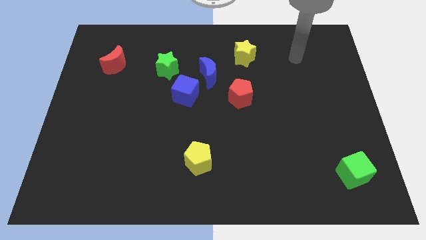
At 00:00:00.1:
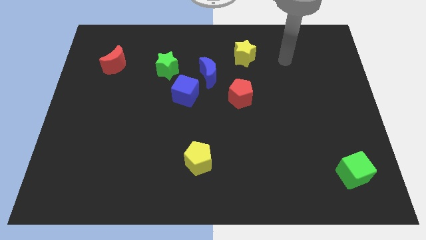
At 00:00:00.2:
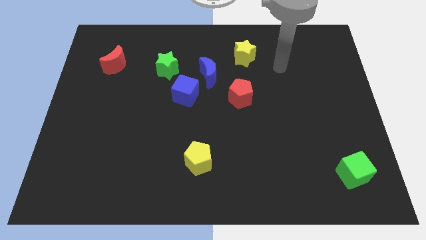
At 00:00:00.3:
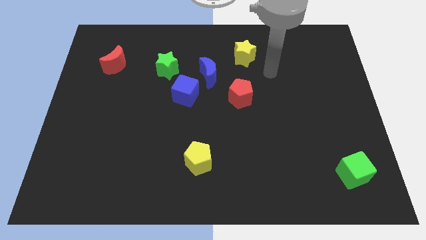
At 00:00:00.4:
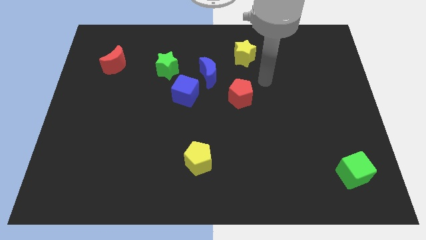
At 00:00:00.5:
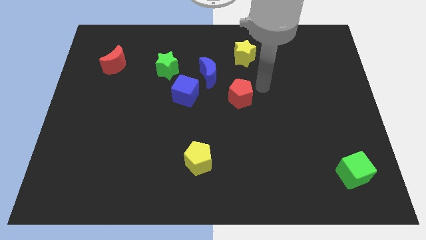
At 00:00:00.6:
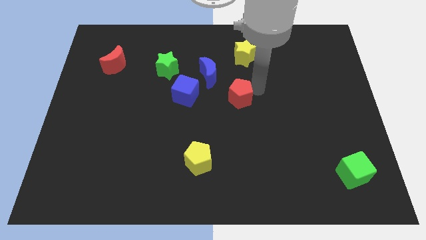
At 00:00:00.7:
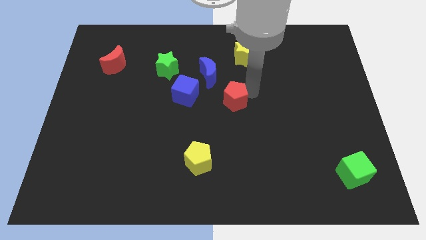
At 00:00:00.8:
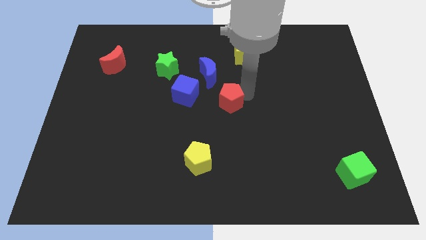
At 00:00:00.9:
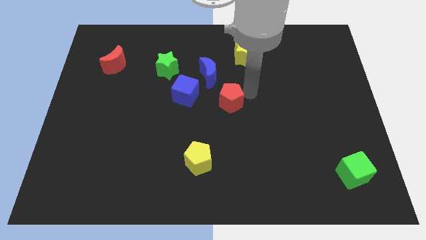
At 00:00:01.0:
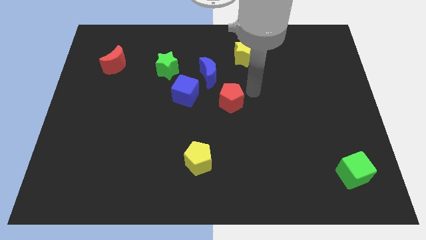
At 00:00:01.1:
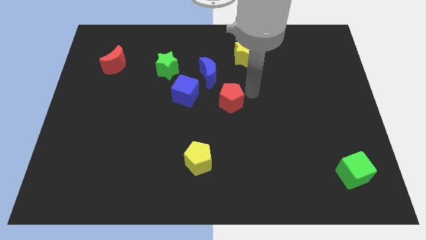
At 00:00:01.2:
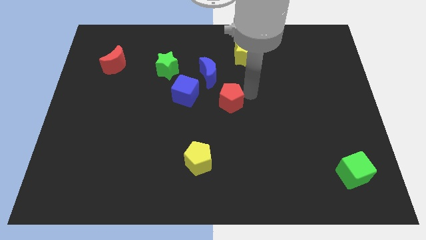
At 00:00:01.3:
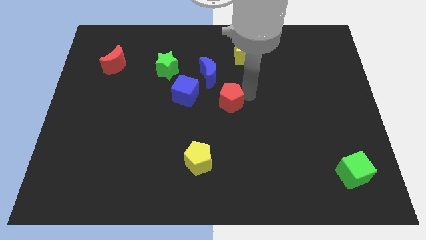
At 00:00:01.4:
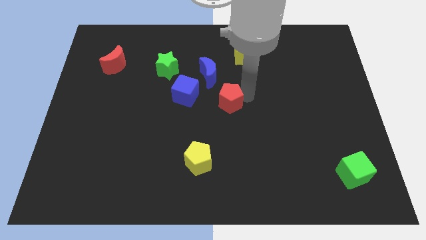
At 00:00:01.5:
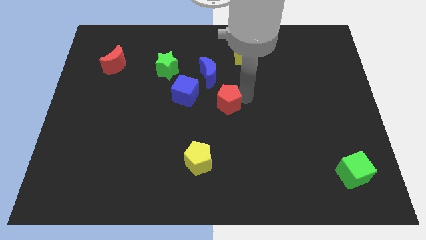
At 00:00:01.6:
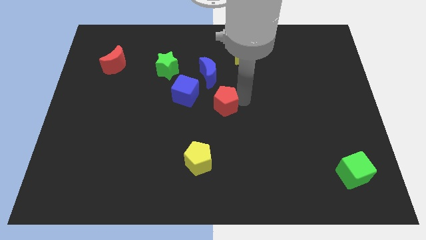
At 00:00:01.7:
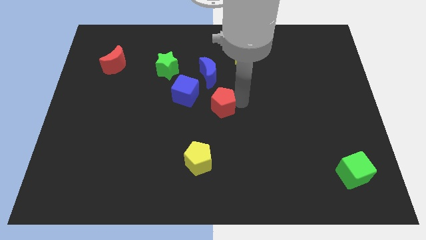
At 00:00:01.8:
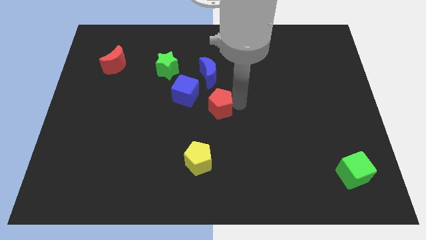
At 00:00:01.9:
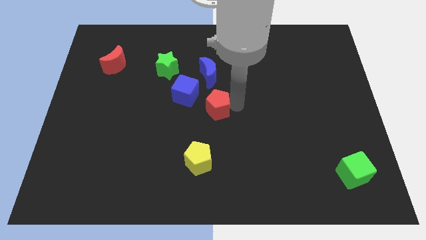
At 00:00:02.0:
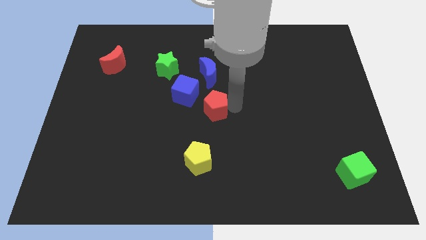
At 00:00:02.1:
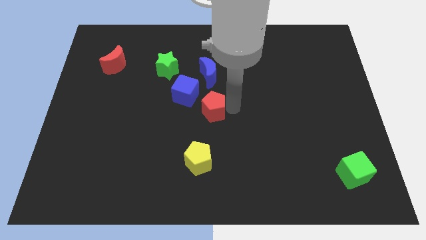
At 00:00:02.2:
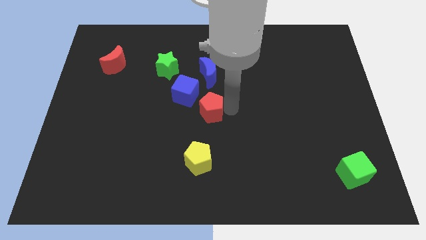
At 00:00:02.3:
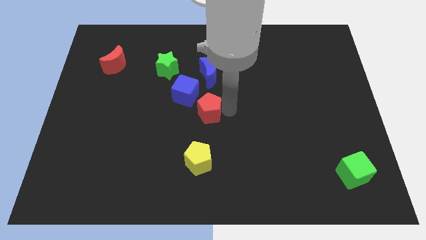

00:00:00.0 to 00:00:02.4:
move the red pentagon to the left a bit

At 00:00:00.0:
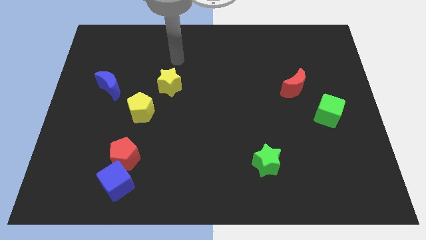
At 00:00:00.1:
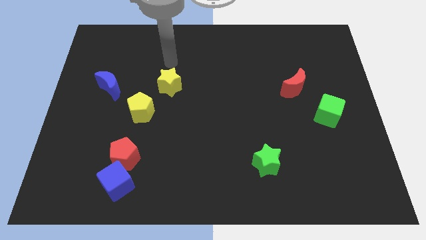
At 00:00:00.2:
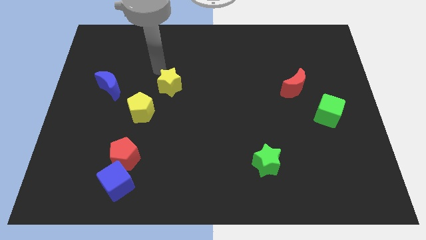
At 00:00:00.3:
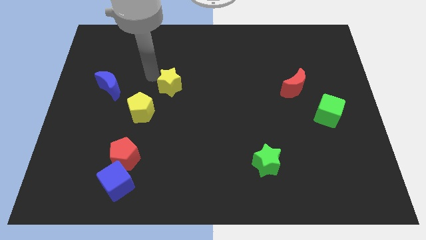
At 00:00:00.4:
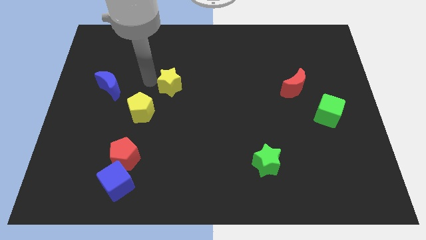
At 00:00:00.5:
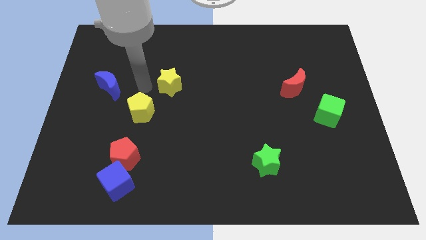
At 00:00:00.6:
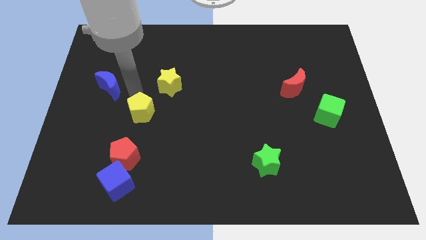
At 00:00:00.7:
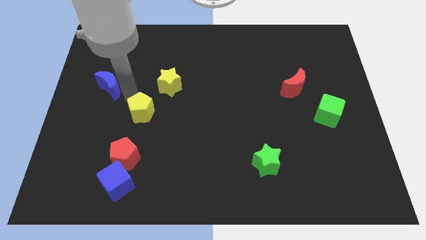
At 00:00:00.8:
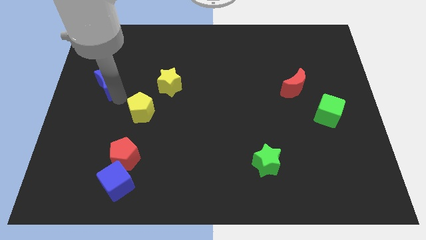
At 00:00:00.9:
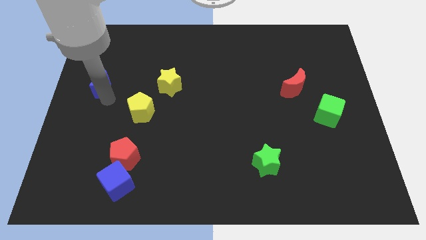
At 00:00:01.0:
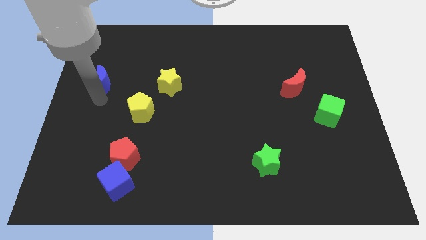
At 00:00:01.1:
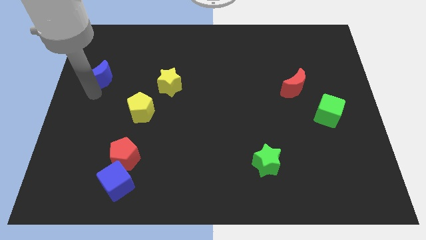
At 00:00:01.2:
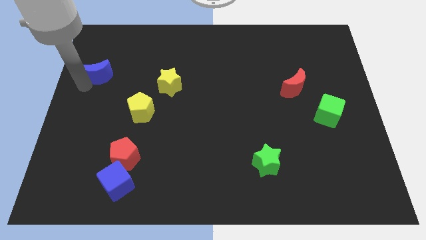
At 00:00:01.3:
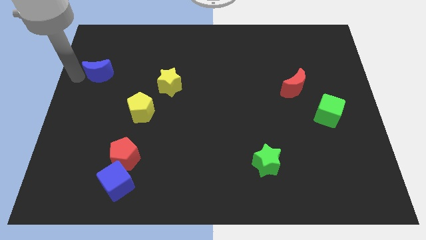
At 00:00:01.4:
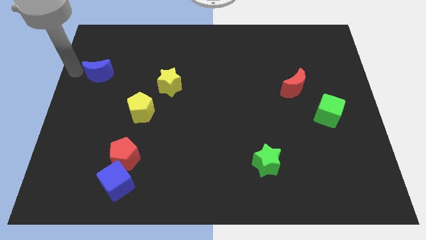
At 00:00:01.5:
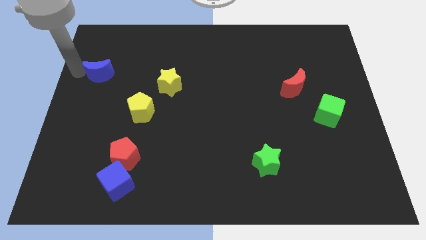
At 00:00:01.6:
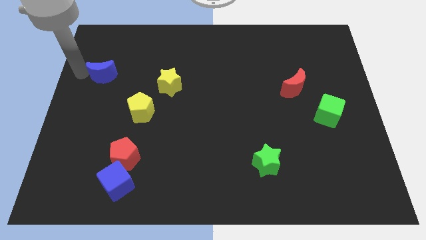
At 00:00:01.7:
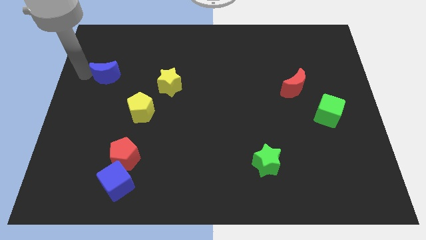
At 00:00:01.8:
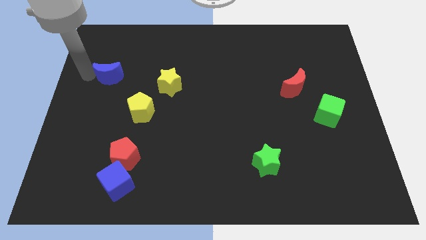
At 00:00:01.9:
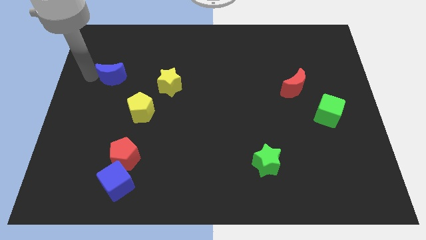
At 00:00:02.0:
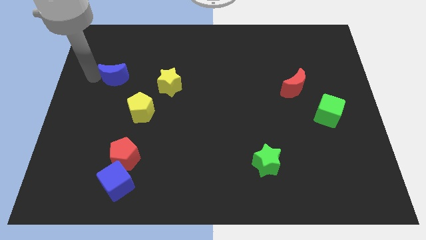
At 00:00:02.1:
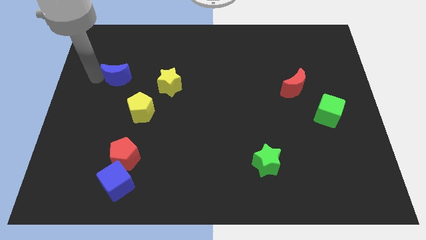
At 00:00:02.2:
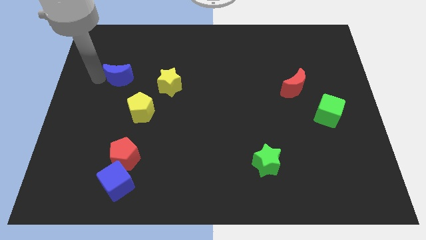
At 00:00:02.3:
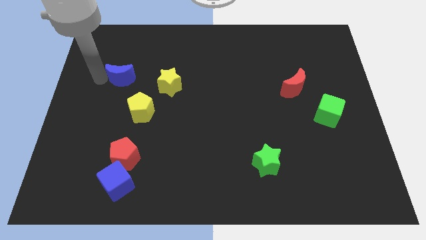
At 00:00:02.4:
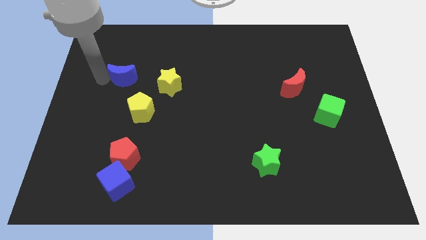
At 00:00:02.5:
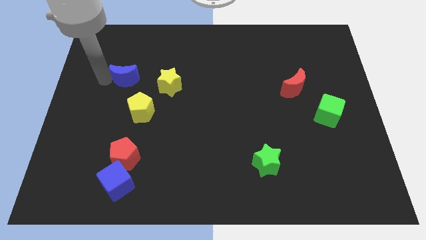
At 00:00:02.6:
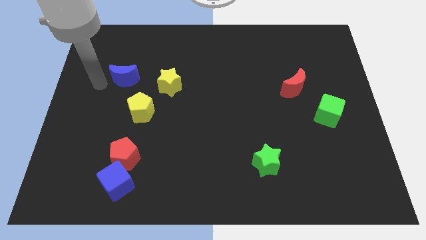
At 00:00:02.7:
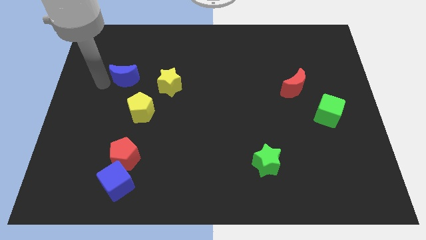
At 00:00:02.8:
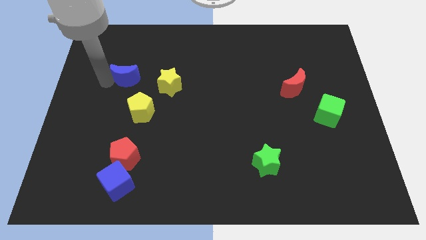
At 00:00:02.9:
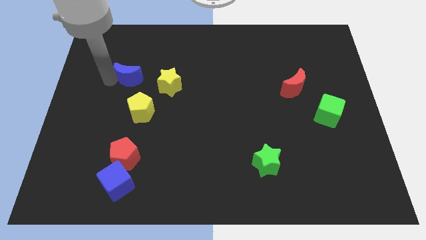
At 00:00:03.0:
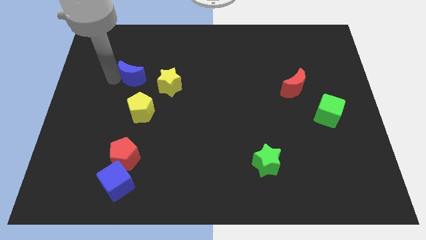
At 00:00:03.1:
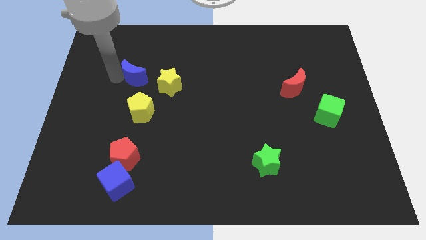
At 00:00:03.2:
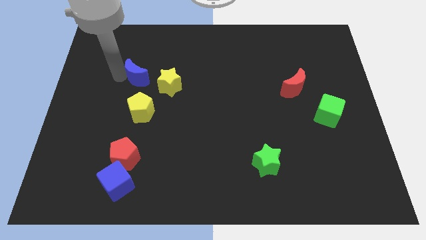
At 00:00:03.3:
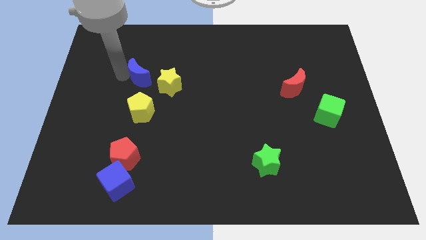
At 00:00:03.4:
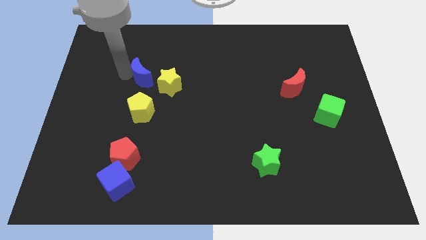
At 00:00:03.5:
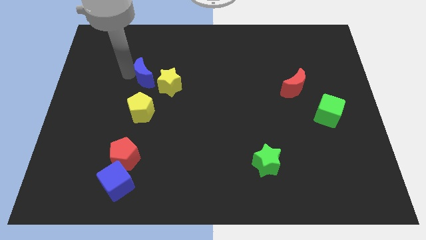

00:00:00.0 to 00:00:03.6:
slightly move the blue moon to the right

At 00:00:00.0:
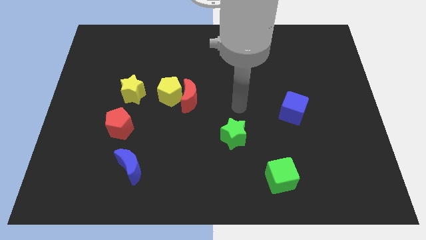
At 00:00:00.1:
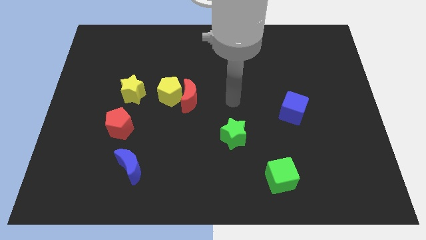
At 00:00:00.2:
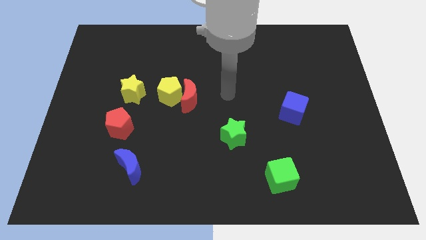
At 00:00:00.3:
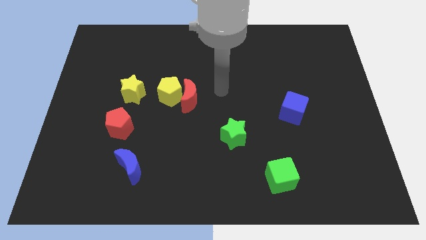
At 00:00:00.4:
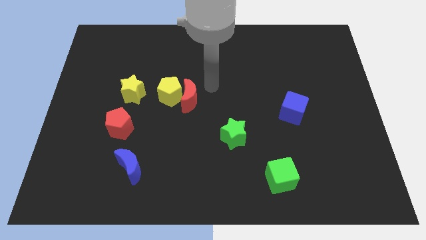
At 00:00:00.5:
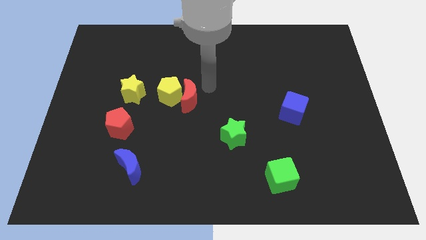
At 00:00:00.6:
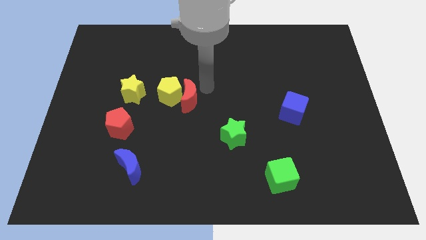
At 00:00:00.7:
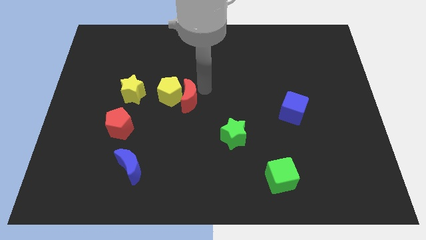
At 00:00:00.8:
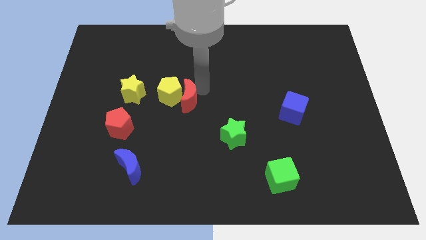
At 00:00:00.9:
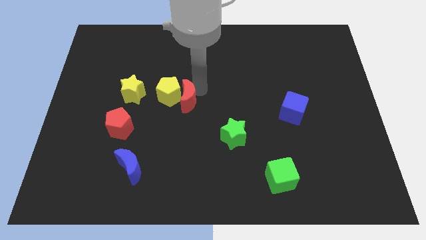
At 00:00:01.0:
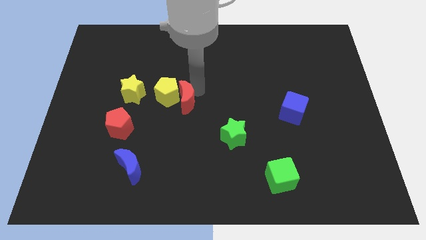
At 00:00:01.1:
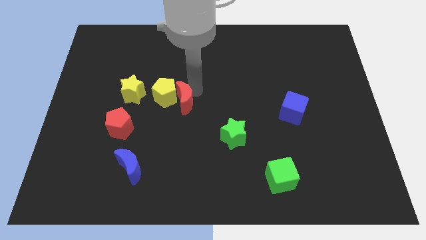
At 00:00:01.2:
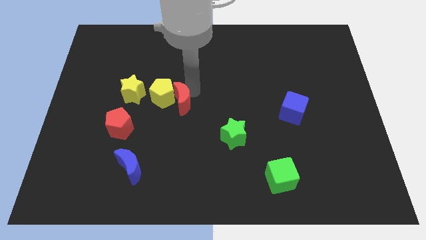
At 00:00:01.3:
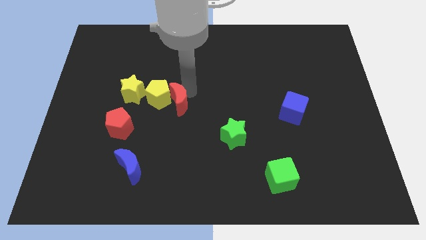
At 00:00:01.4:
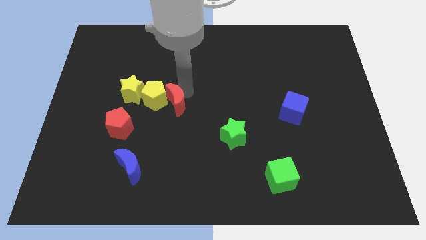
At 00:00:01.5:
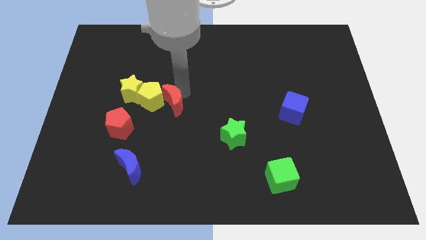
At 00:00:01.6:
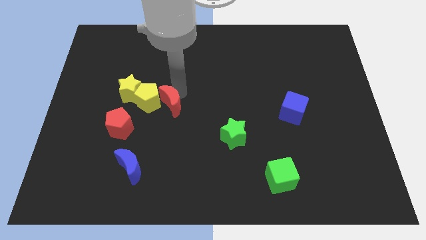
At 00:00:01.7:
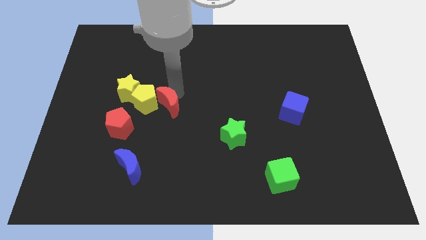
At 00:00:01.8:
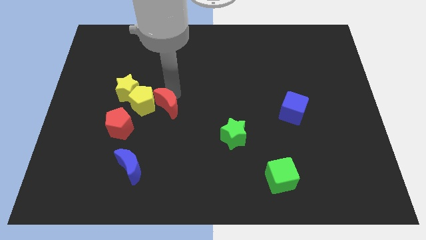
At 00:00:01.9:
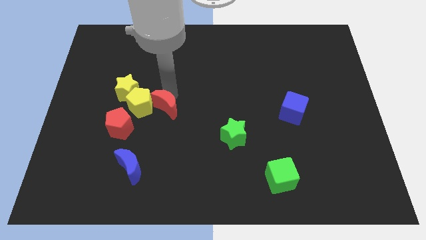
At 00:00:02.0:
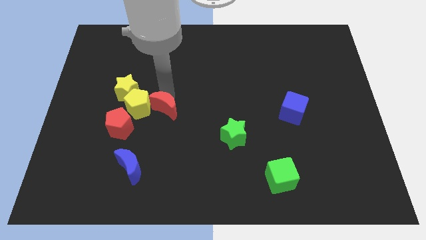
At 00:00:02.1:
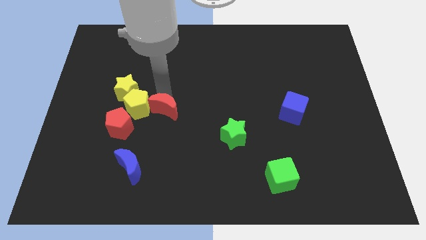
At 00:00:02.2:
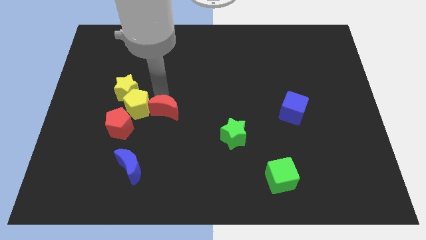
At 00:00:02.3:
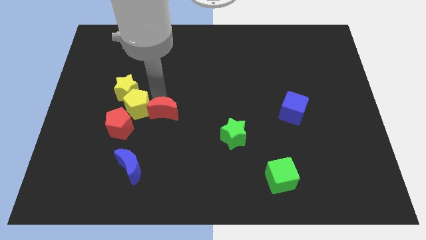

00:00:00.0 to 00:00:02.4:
move the red moon a bit downwards and to the left
